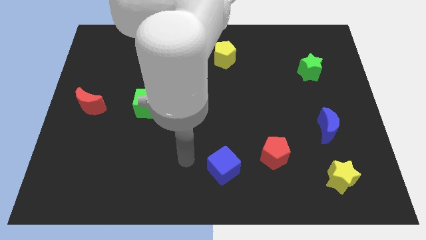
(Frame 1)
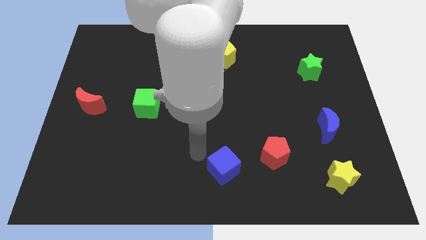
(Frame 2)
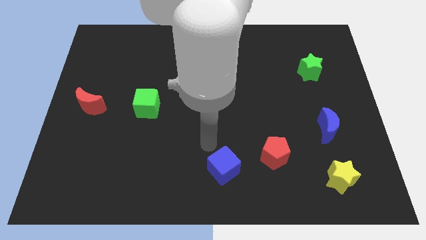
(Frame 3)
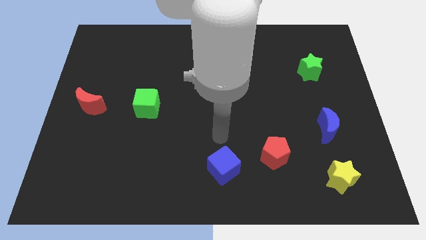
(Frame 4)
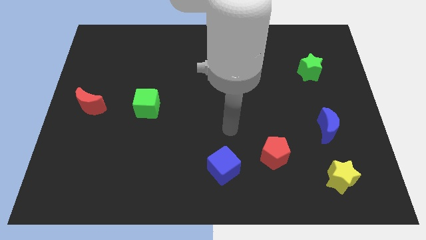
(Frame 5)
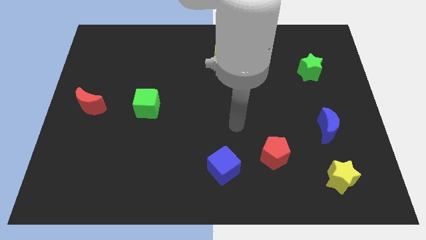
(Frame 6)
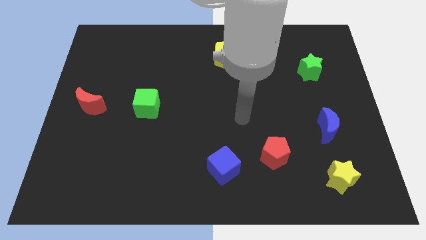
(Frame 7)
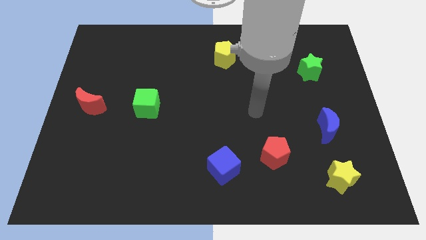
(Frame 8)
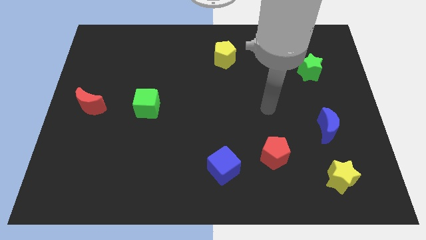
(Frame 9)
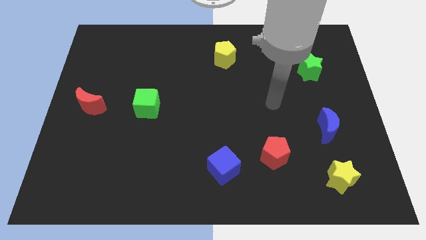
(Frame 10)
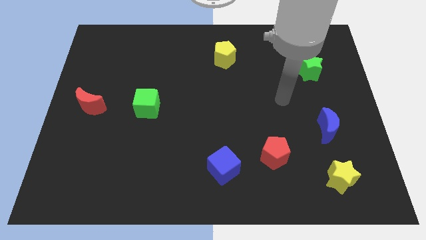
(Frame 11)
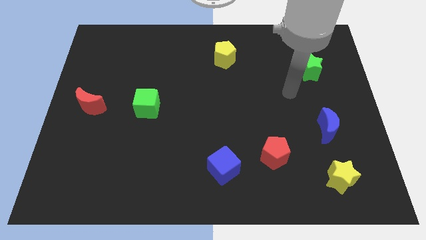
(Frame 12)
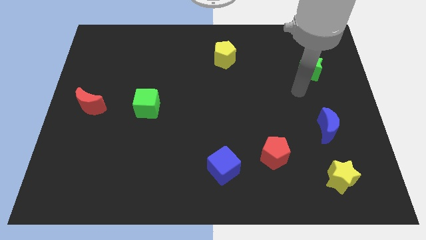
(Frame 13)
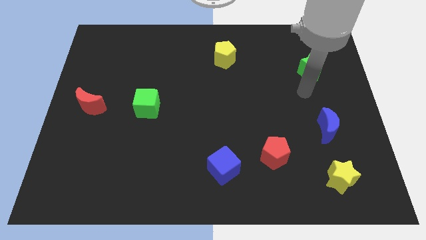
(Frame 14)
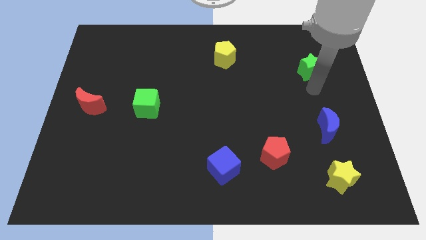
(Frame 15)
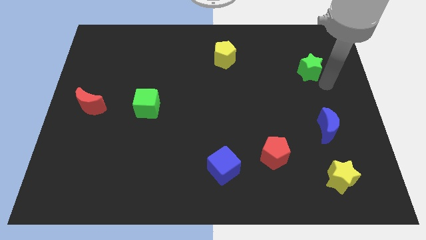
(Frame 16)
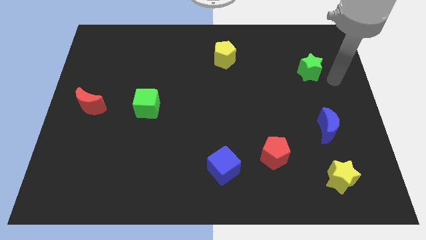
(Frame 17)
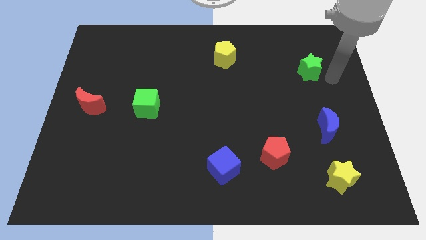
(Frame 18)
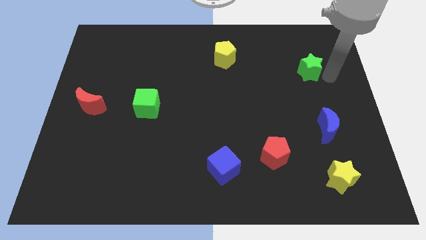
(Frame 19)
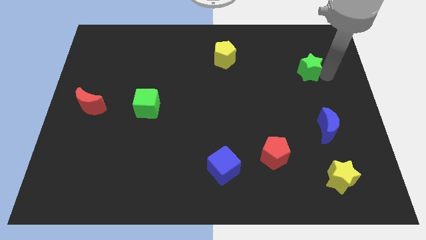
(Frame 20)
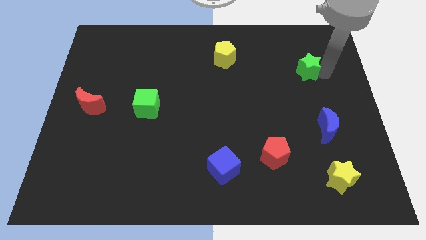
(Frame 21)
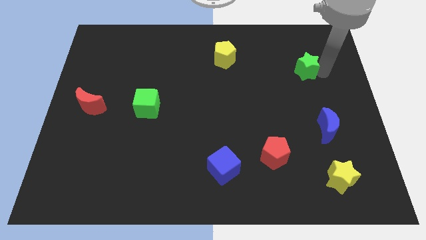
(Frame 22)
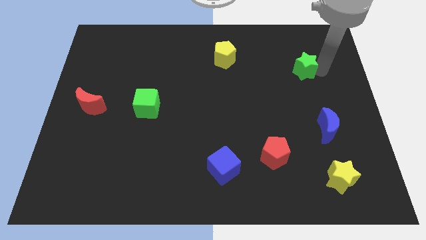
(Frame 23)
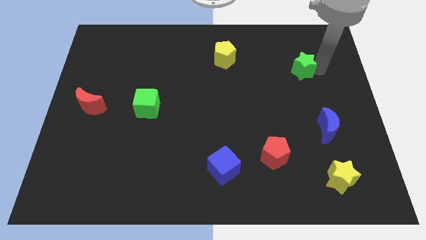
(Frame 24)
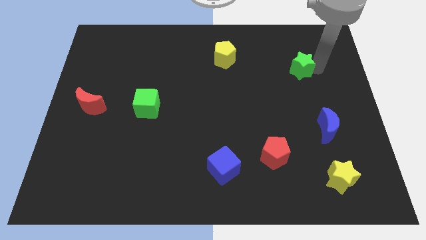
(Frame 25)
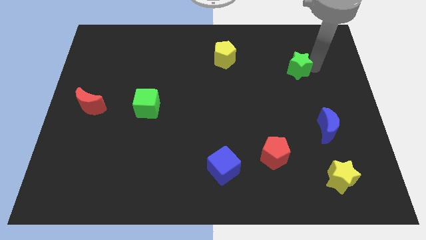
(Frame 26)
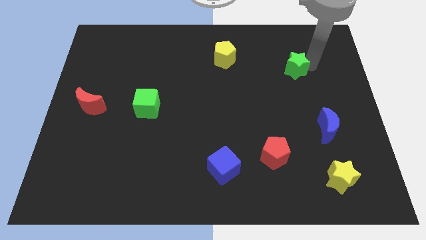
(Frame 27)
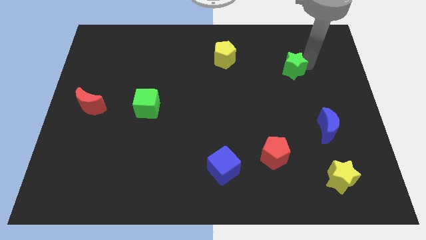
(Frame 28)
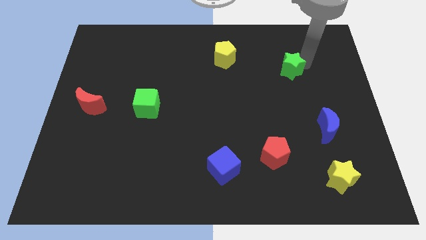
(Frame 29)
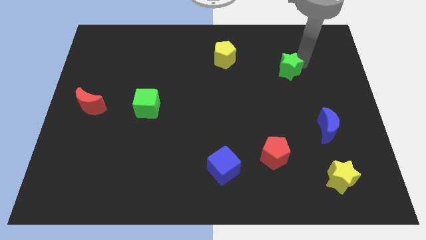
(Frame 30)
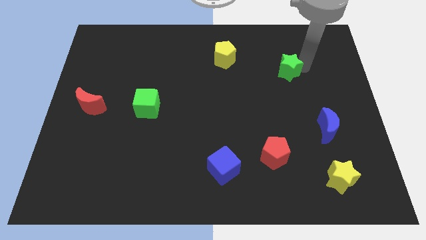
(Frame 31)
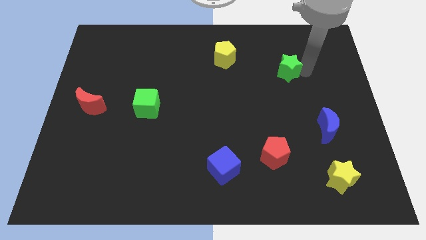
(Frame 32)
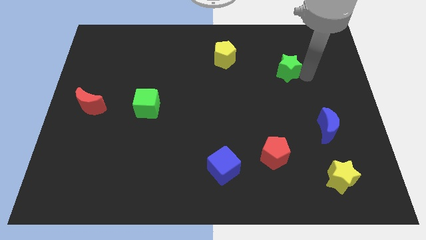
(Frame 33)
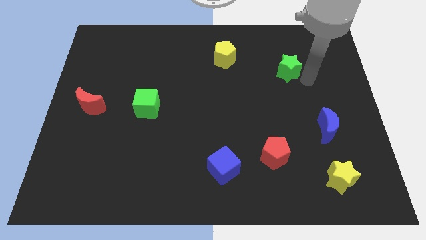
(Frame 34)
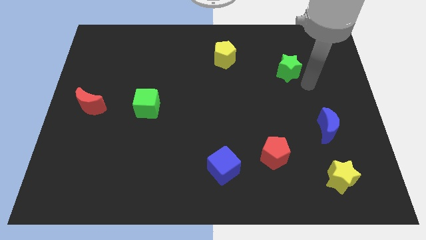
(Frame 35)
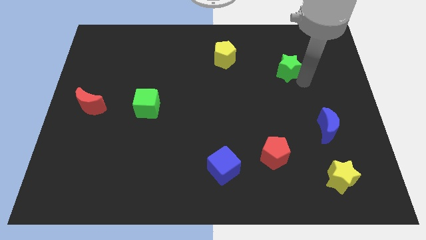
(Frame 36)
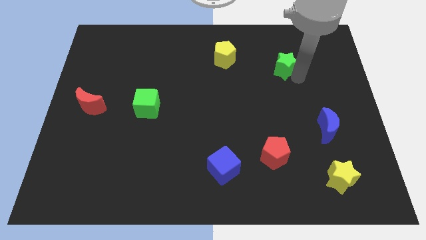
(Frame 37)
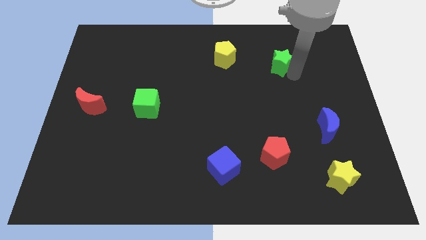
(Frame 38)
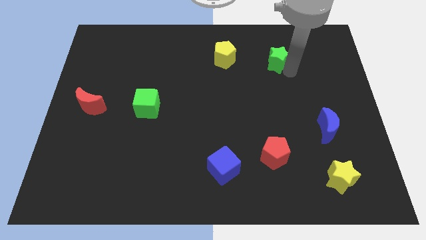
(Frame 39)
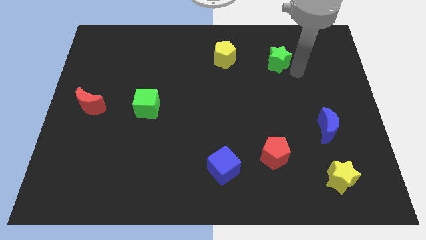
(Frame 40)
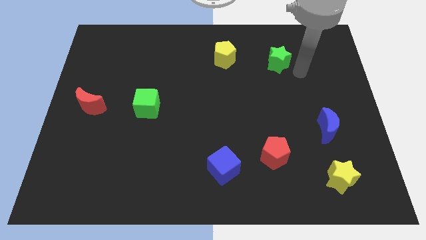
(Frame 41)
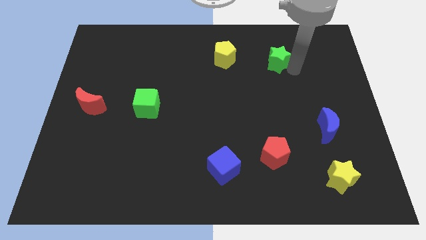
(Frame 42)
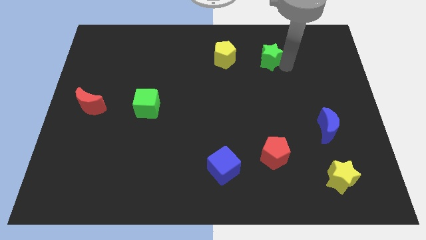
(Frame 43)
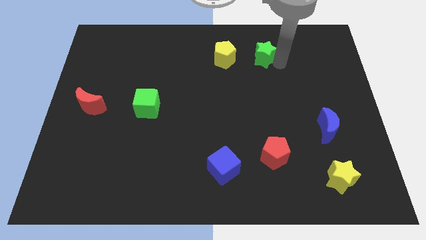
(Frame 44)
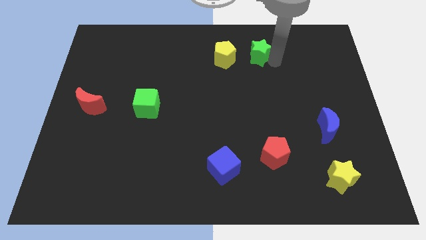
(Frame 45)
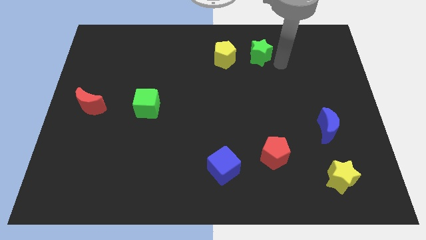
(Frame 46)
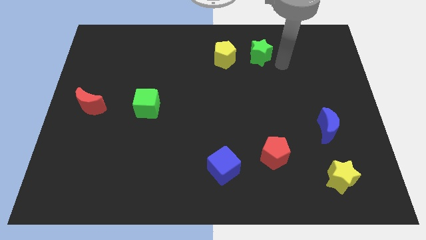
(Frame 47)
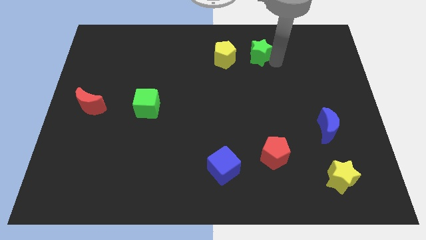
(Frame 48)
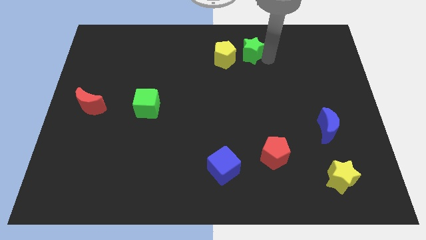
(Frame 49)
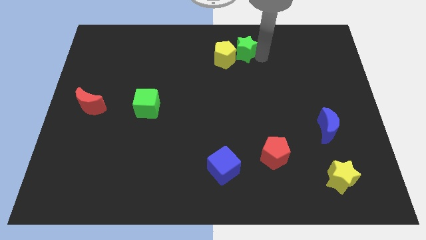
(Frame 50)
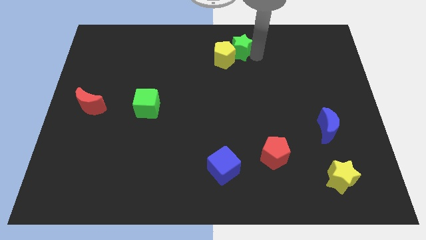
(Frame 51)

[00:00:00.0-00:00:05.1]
move the green star to the top

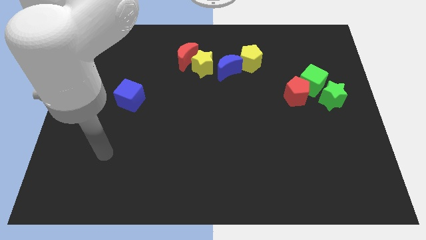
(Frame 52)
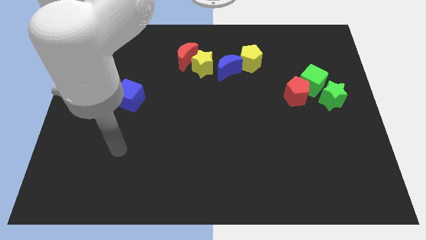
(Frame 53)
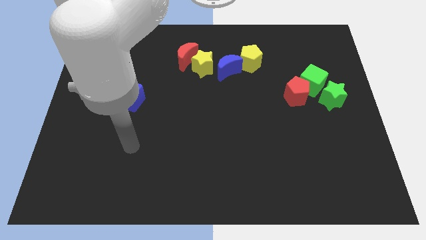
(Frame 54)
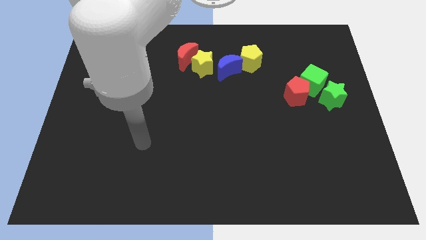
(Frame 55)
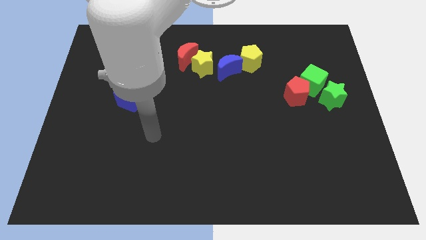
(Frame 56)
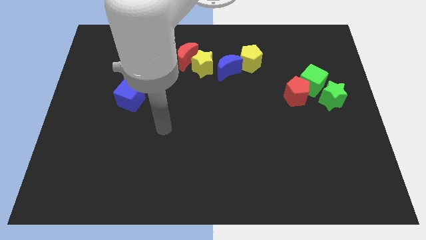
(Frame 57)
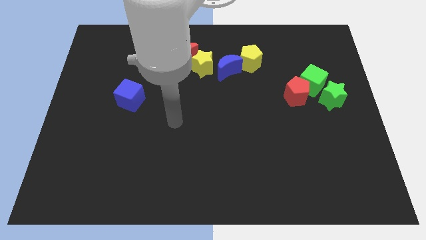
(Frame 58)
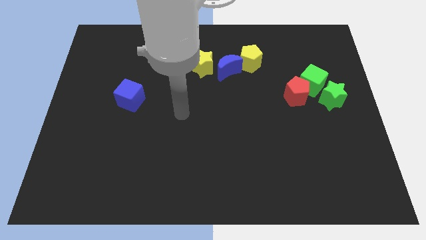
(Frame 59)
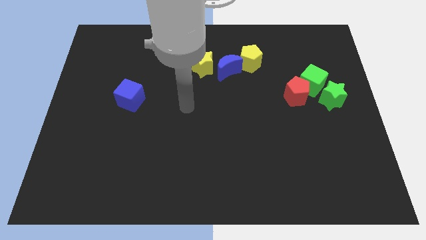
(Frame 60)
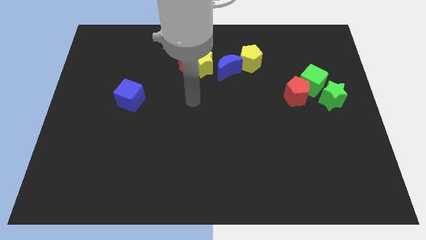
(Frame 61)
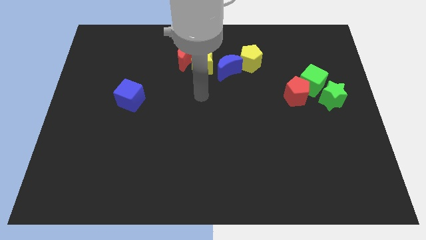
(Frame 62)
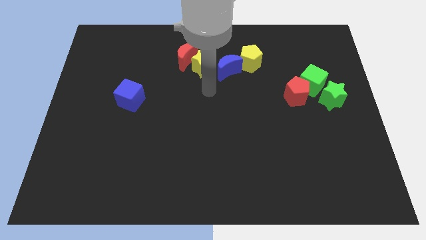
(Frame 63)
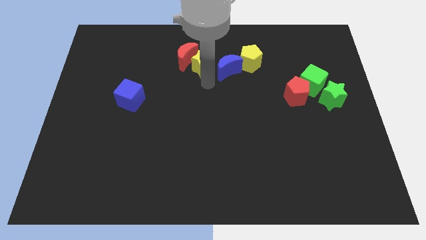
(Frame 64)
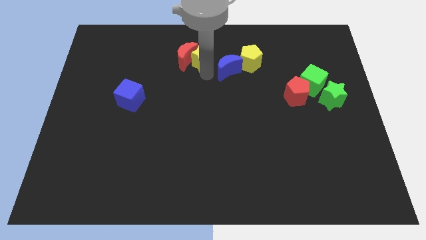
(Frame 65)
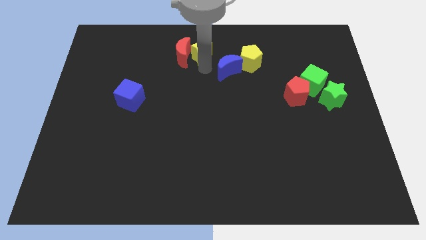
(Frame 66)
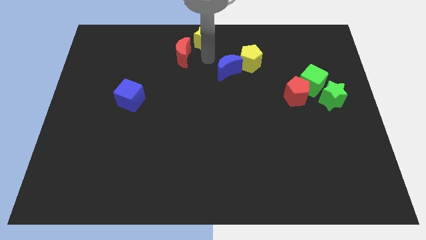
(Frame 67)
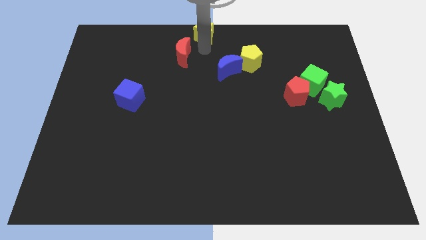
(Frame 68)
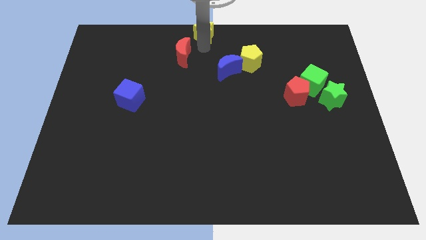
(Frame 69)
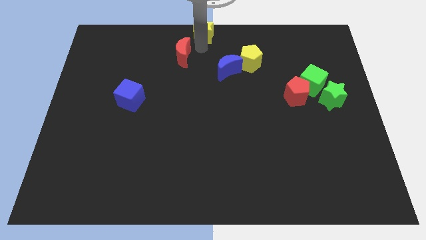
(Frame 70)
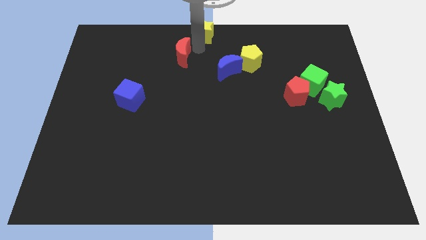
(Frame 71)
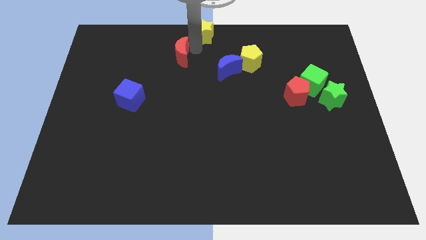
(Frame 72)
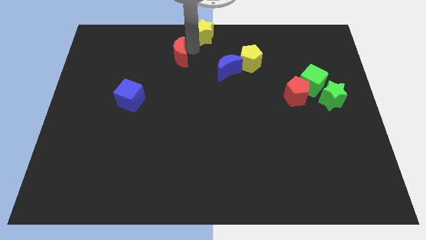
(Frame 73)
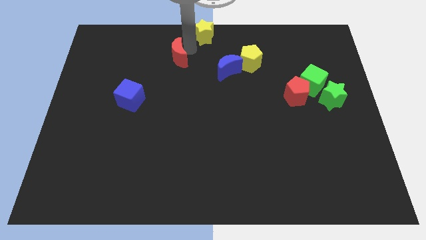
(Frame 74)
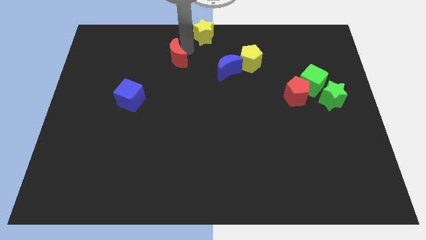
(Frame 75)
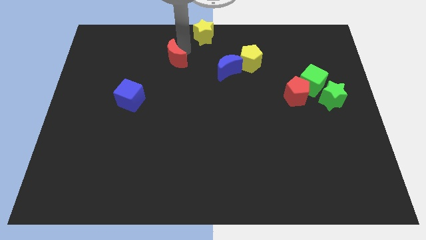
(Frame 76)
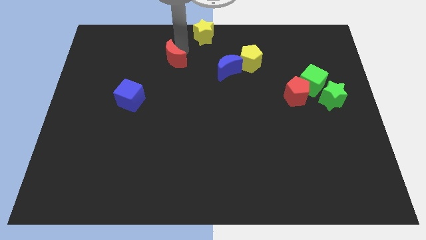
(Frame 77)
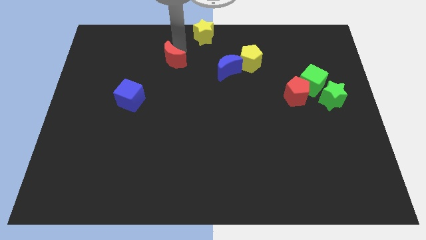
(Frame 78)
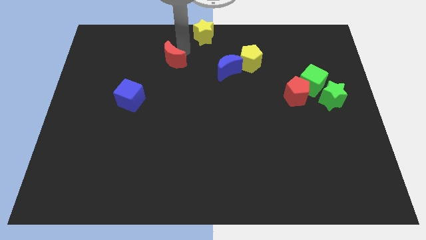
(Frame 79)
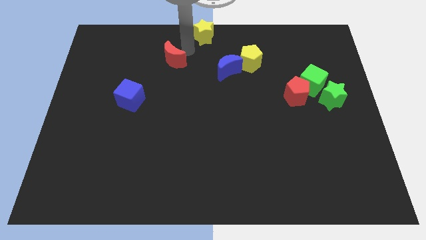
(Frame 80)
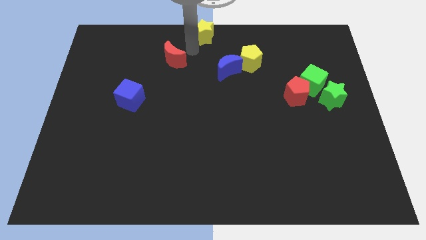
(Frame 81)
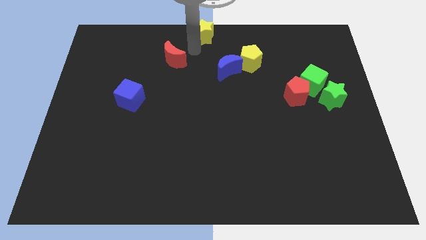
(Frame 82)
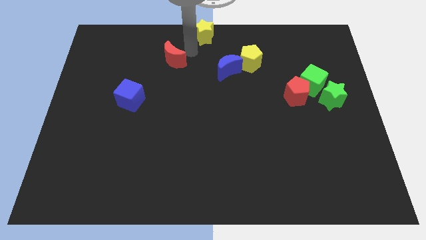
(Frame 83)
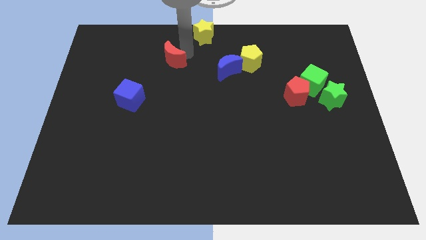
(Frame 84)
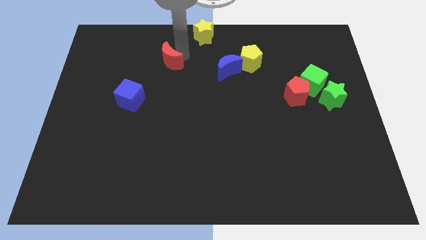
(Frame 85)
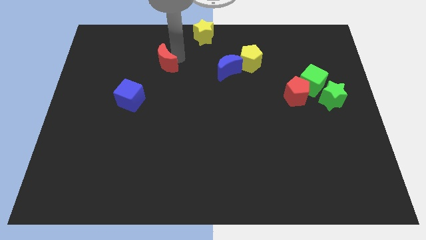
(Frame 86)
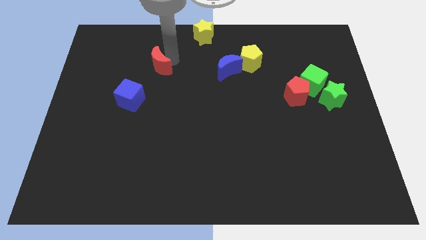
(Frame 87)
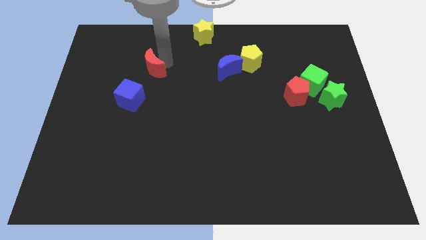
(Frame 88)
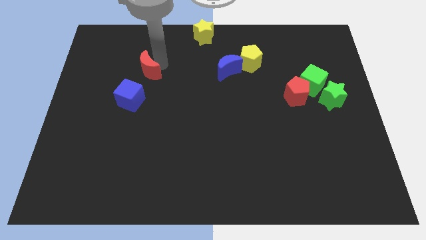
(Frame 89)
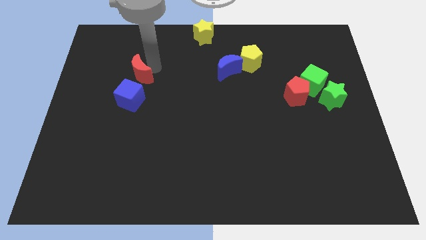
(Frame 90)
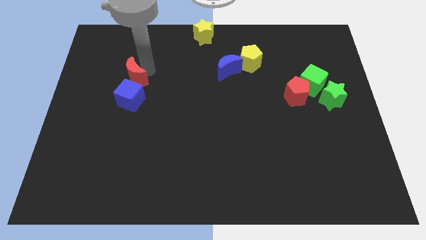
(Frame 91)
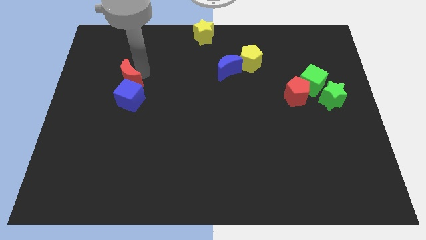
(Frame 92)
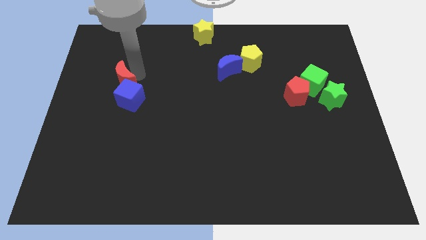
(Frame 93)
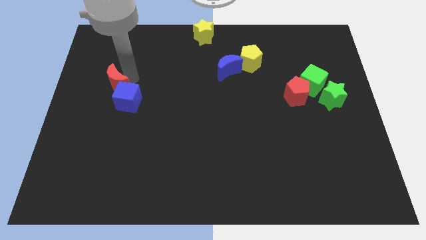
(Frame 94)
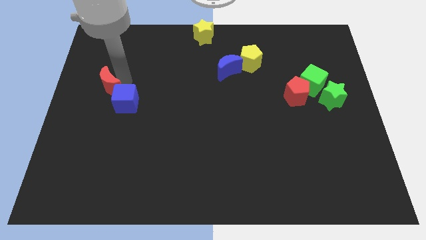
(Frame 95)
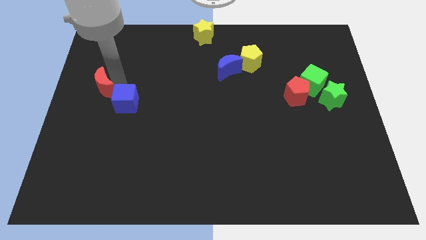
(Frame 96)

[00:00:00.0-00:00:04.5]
push the red moon to the center left
